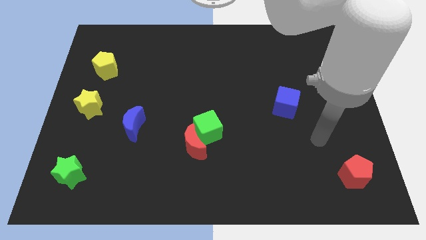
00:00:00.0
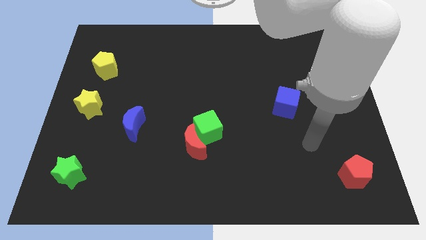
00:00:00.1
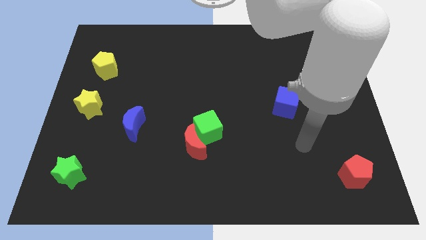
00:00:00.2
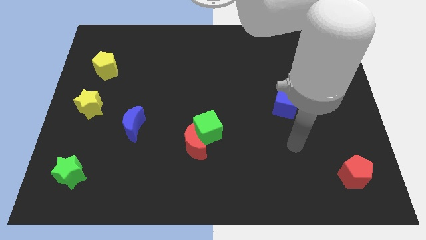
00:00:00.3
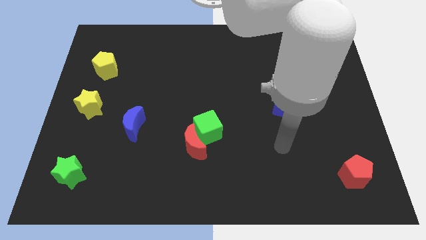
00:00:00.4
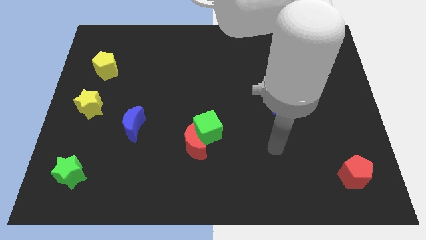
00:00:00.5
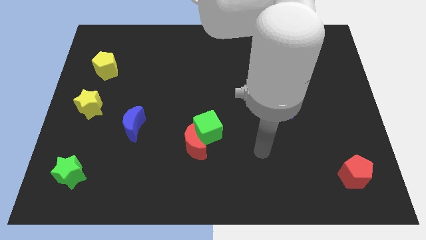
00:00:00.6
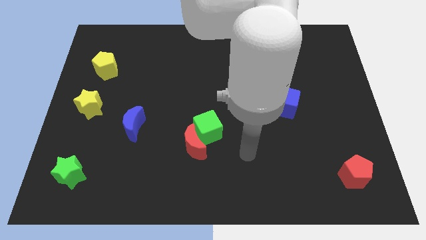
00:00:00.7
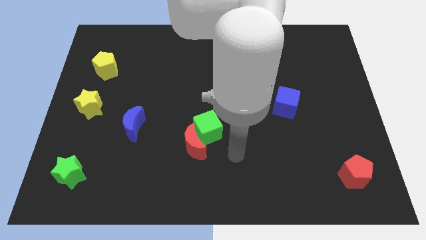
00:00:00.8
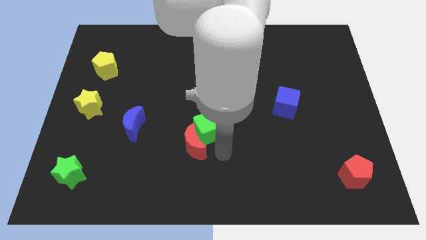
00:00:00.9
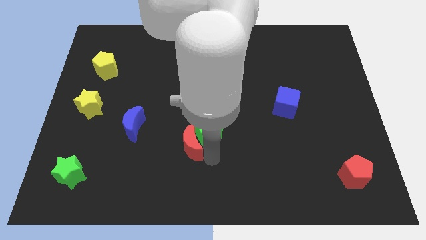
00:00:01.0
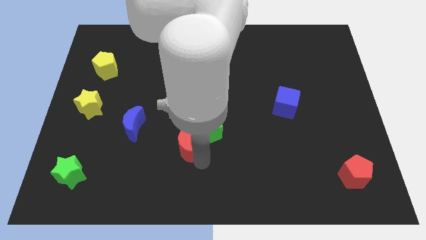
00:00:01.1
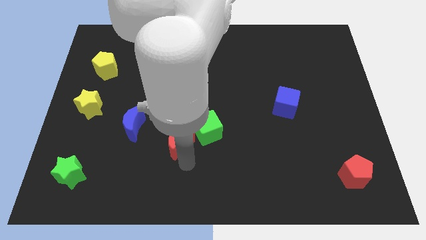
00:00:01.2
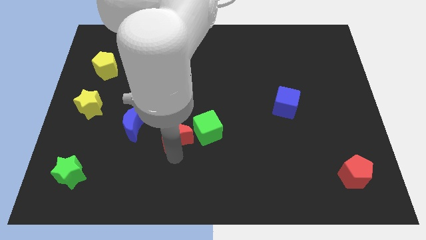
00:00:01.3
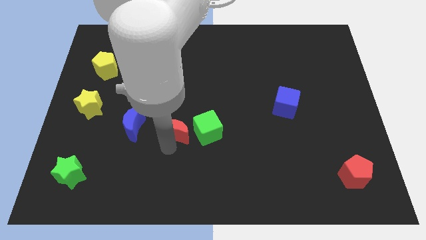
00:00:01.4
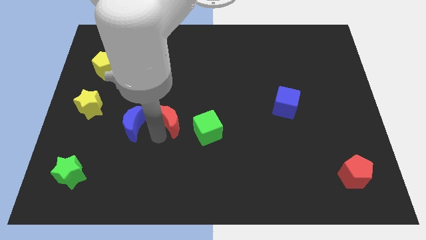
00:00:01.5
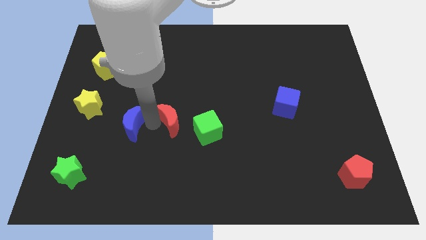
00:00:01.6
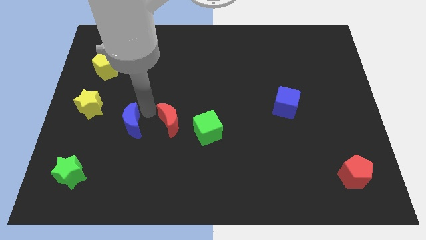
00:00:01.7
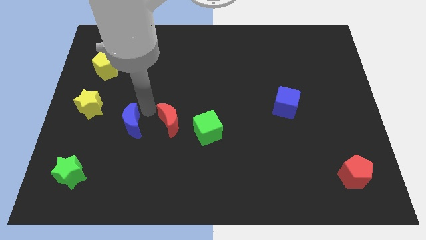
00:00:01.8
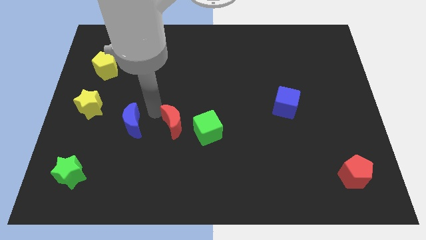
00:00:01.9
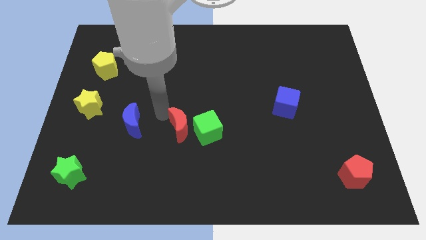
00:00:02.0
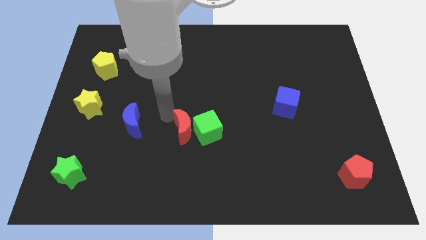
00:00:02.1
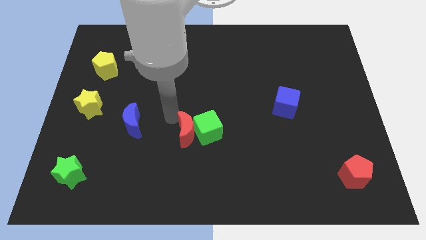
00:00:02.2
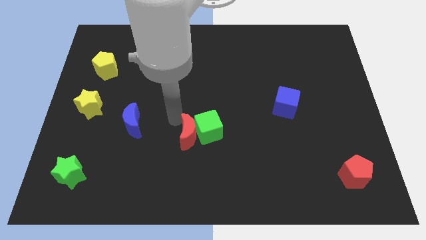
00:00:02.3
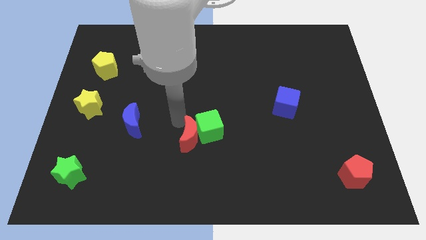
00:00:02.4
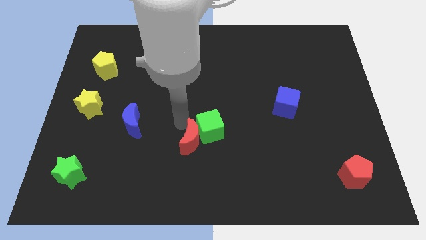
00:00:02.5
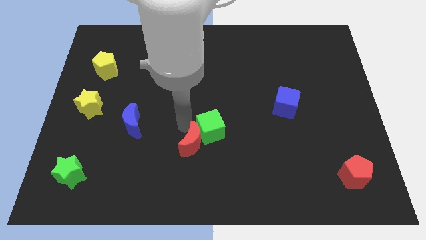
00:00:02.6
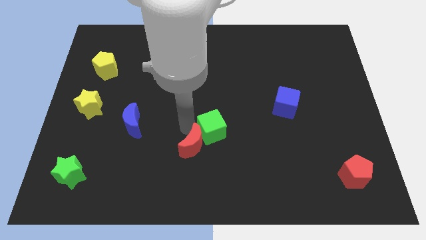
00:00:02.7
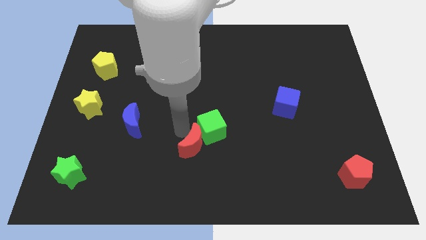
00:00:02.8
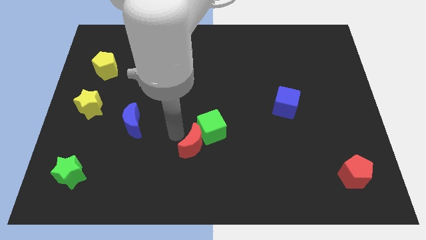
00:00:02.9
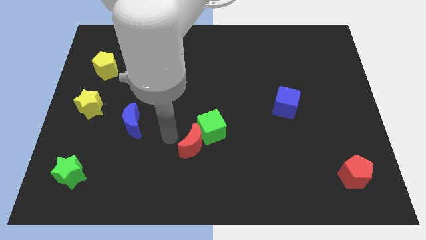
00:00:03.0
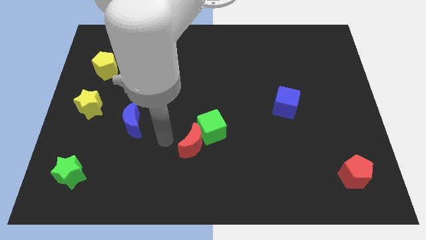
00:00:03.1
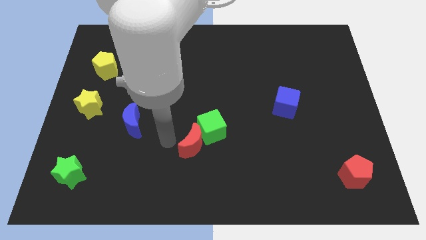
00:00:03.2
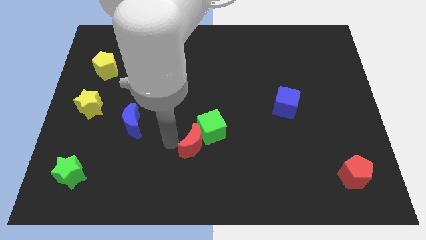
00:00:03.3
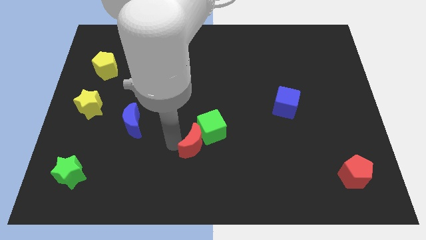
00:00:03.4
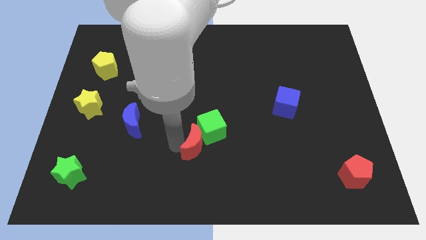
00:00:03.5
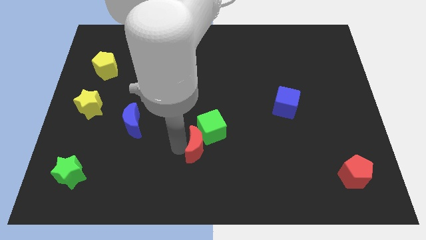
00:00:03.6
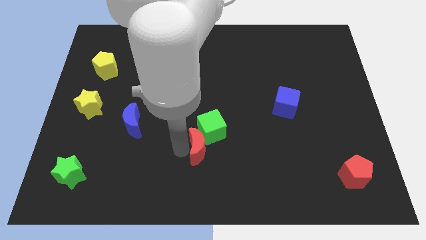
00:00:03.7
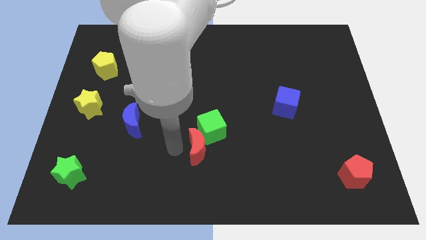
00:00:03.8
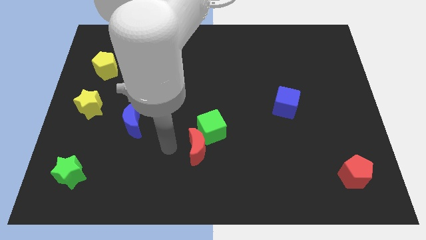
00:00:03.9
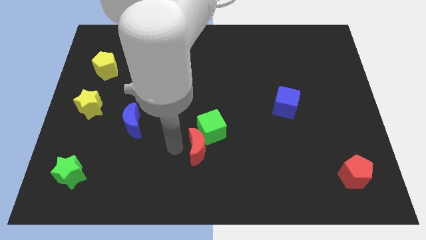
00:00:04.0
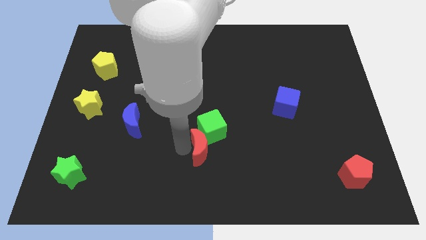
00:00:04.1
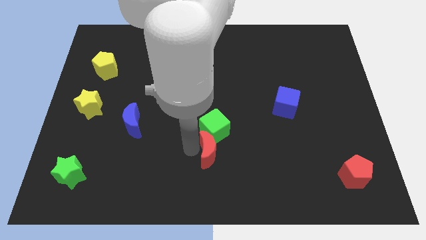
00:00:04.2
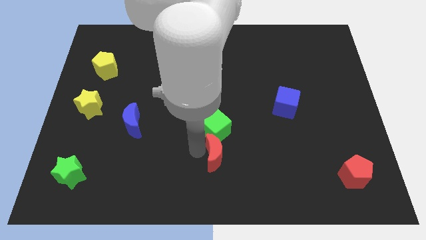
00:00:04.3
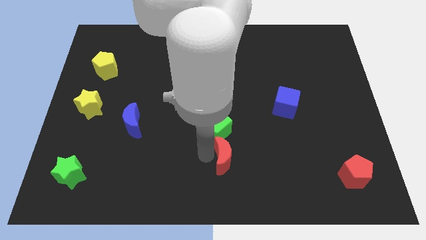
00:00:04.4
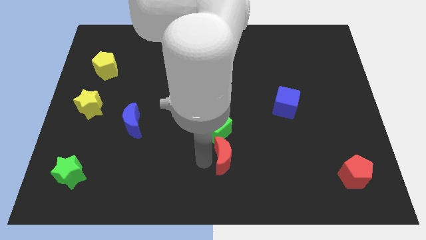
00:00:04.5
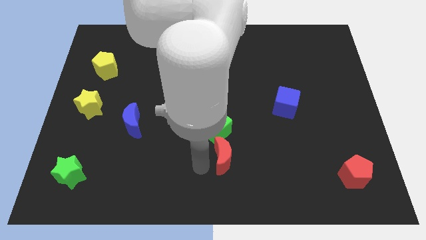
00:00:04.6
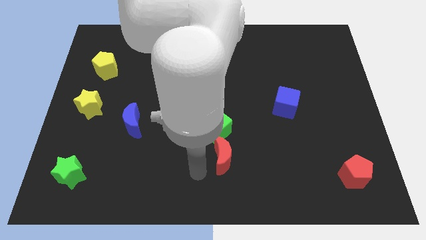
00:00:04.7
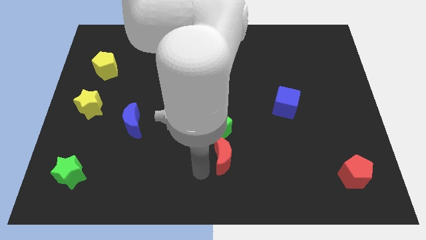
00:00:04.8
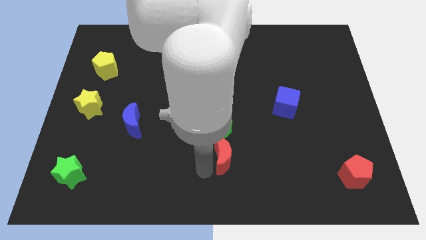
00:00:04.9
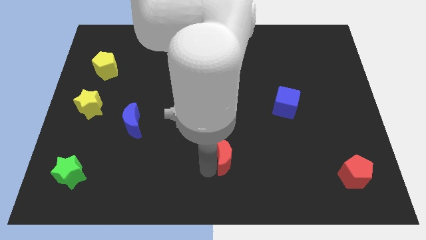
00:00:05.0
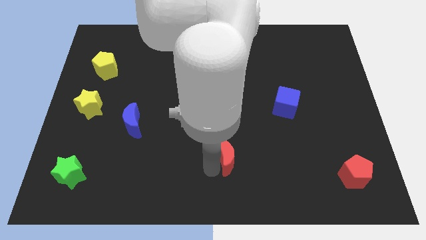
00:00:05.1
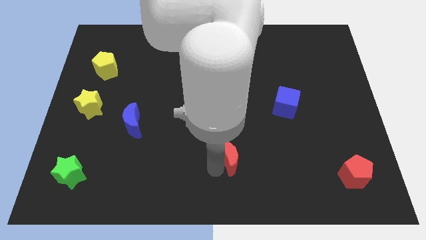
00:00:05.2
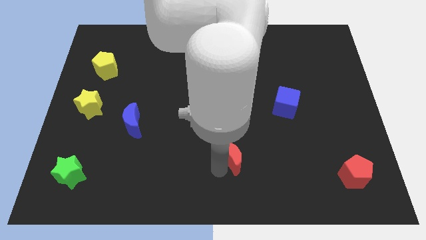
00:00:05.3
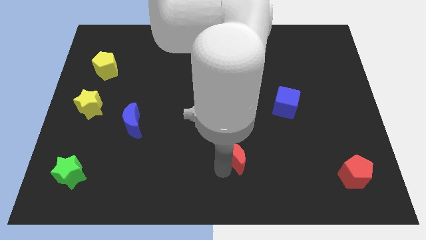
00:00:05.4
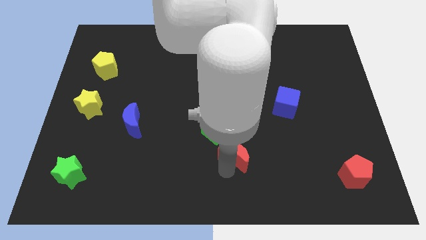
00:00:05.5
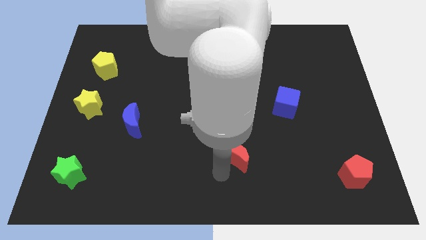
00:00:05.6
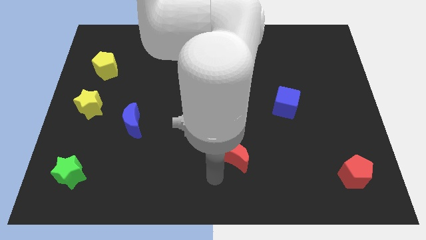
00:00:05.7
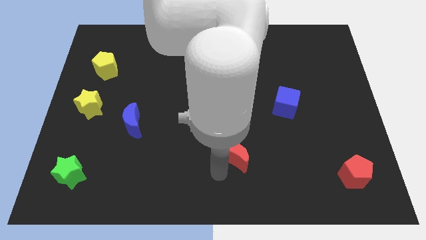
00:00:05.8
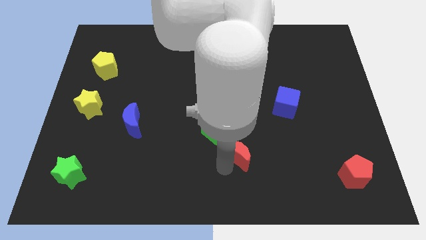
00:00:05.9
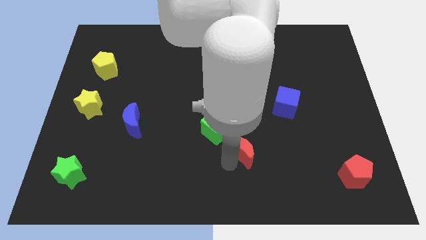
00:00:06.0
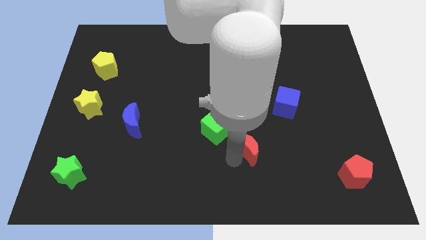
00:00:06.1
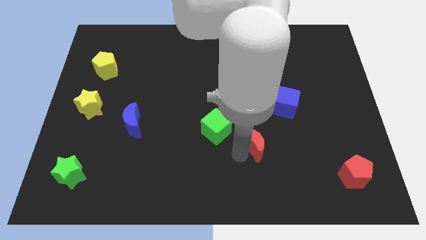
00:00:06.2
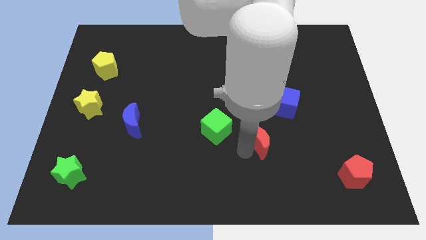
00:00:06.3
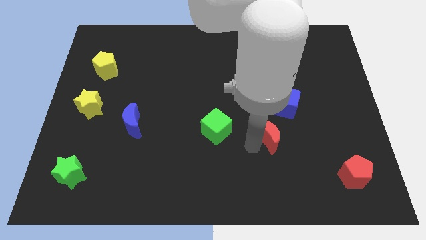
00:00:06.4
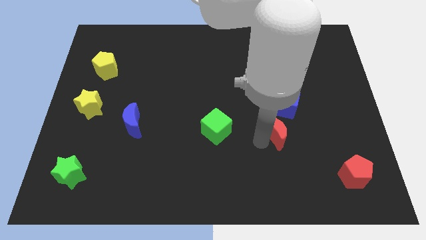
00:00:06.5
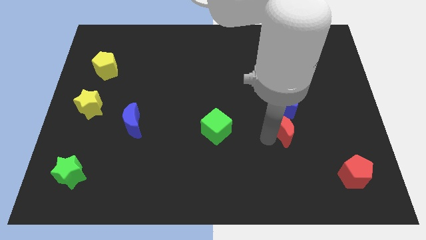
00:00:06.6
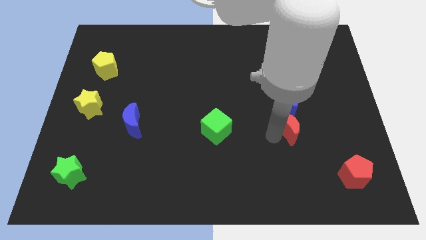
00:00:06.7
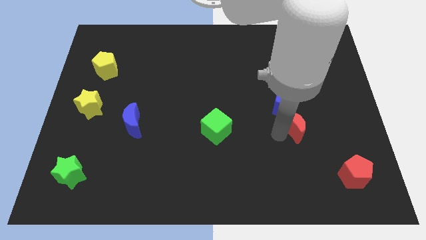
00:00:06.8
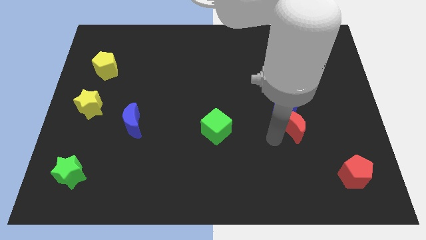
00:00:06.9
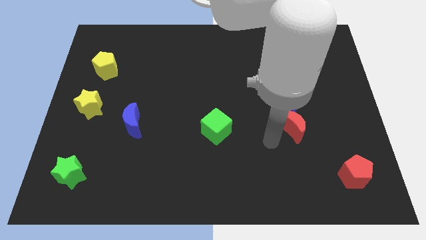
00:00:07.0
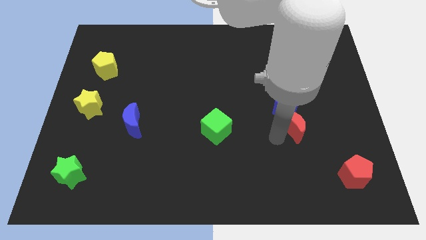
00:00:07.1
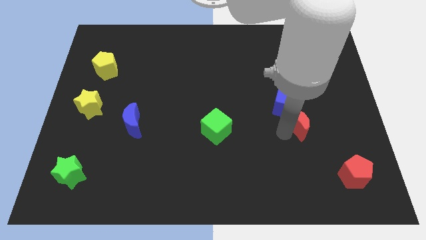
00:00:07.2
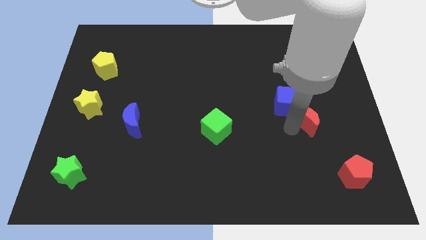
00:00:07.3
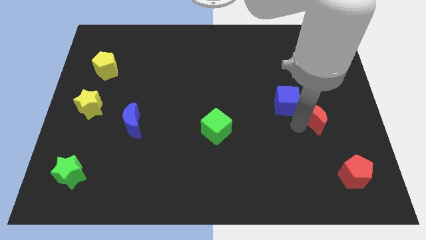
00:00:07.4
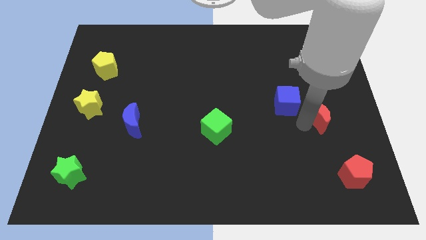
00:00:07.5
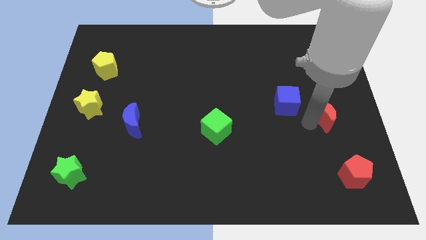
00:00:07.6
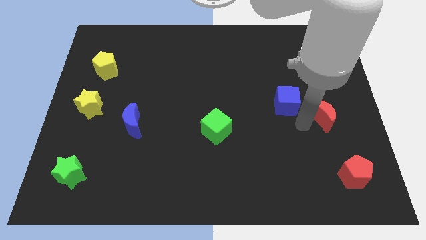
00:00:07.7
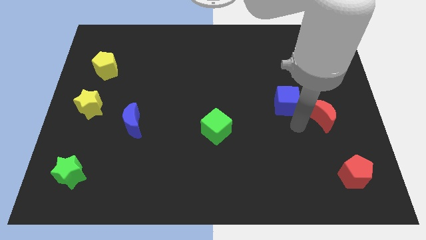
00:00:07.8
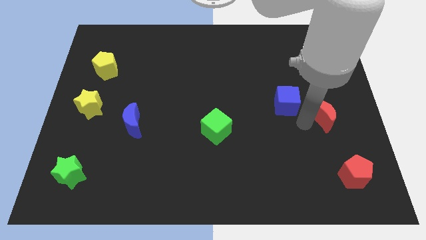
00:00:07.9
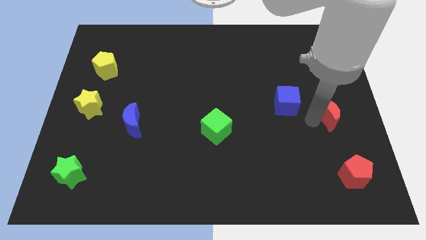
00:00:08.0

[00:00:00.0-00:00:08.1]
slide the red moon to the right side of the board
